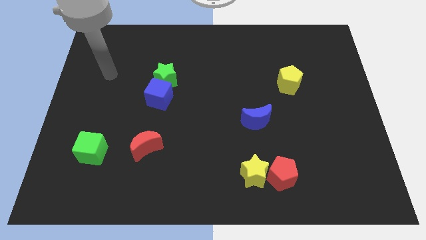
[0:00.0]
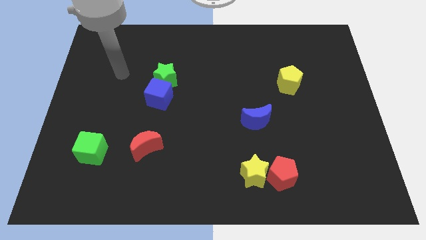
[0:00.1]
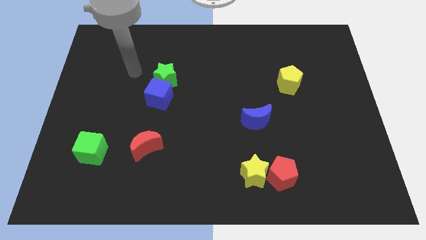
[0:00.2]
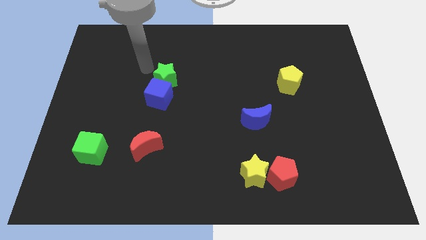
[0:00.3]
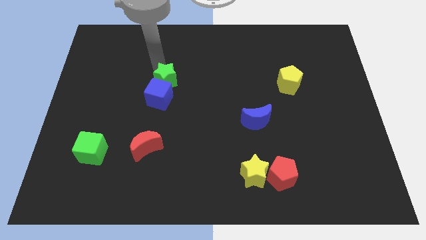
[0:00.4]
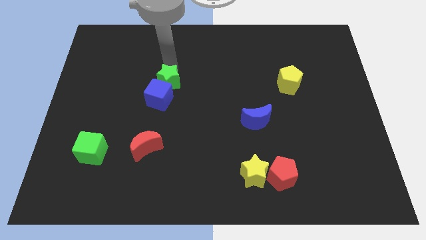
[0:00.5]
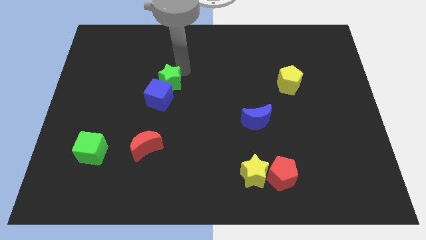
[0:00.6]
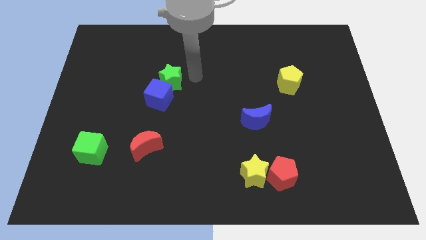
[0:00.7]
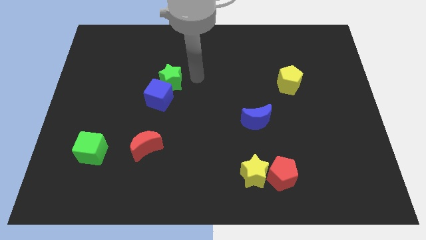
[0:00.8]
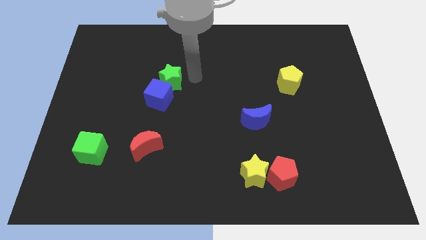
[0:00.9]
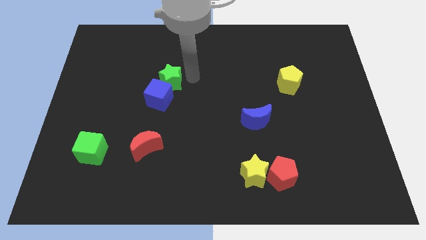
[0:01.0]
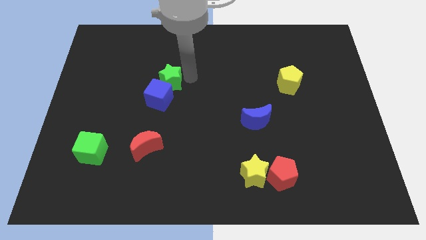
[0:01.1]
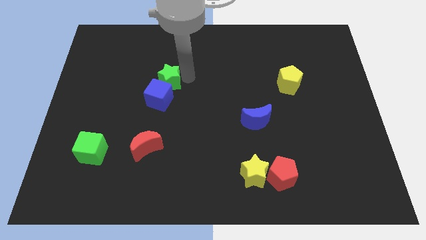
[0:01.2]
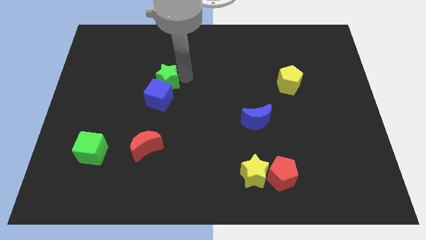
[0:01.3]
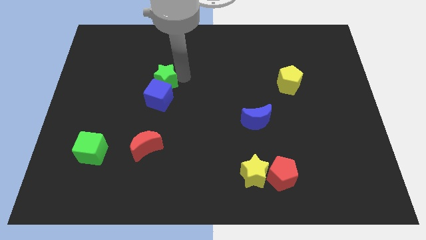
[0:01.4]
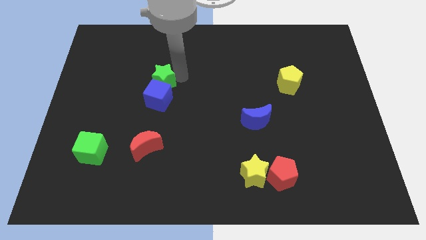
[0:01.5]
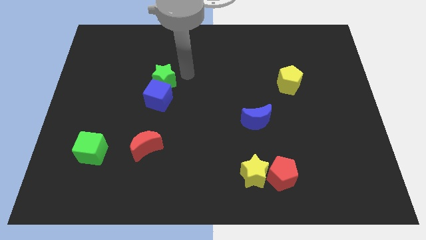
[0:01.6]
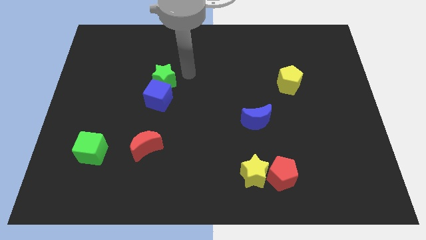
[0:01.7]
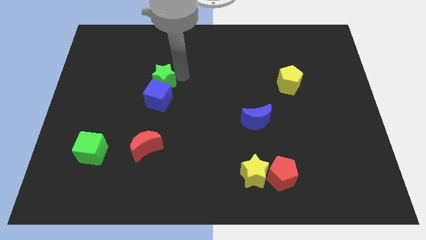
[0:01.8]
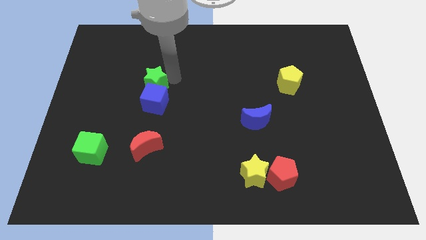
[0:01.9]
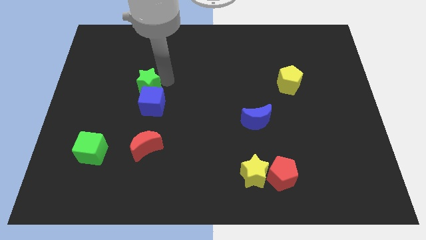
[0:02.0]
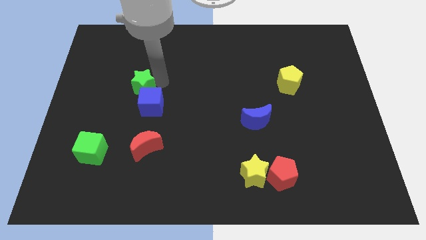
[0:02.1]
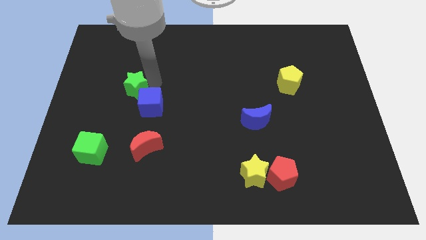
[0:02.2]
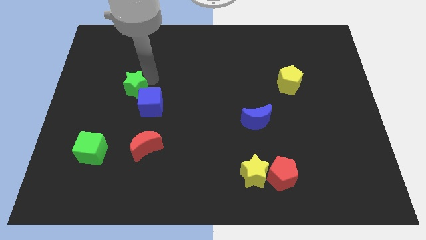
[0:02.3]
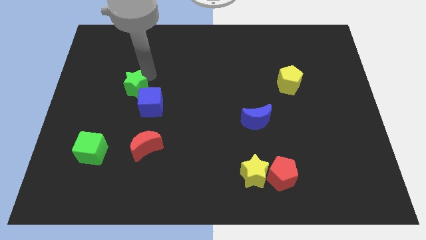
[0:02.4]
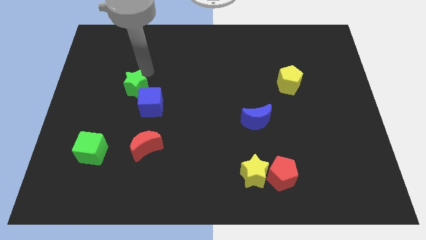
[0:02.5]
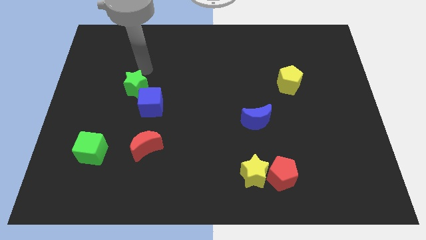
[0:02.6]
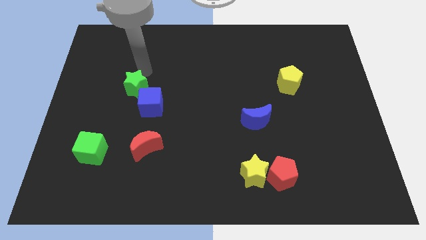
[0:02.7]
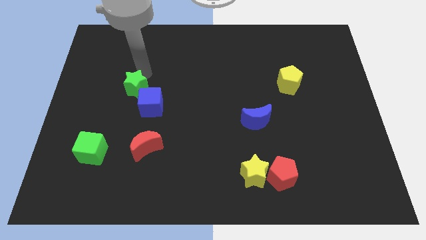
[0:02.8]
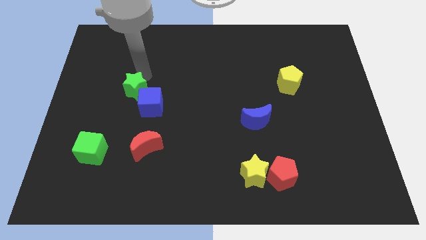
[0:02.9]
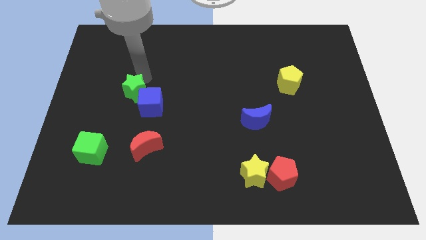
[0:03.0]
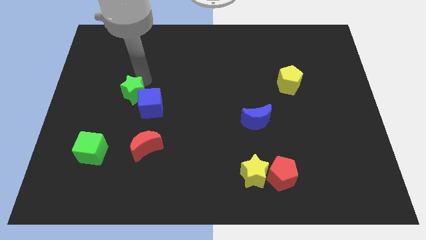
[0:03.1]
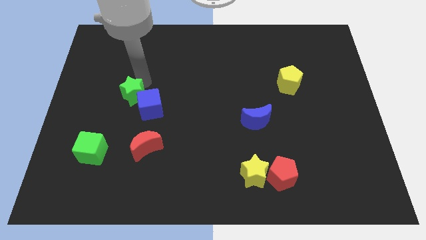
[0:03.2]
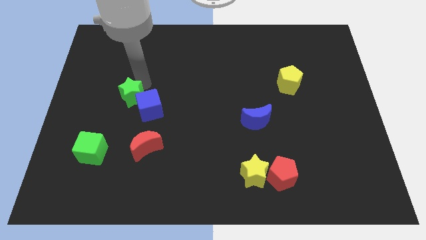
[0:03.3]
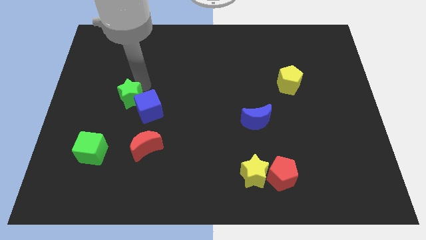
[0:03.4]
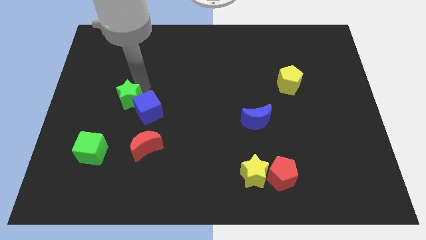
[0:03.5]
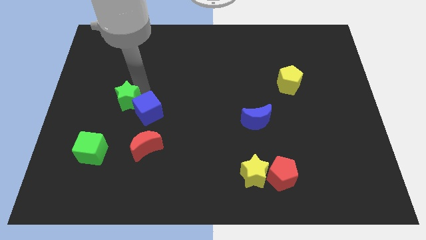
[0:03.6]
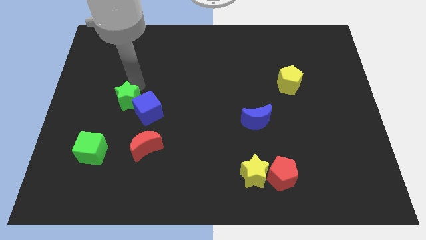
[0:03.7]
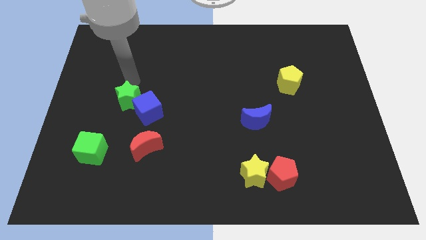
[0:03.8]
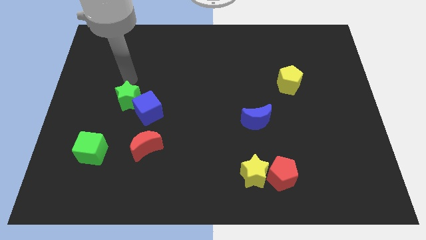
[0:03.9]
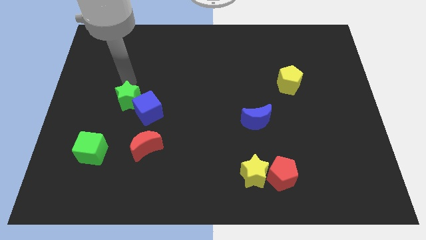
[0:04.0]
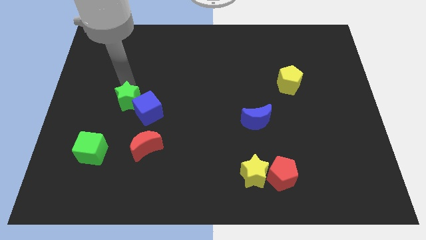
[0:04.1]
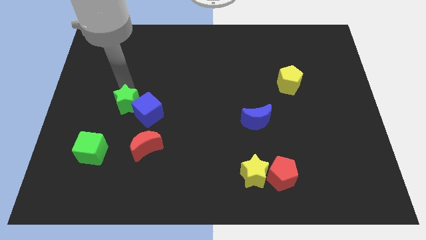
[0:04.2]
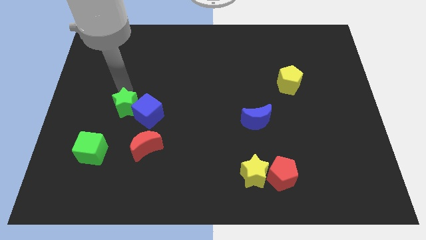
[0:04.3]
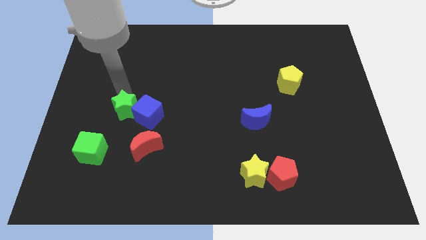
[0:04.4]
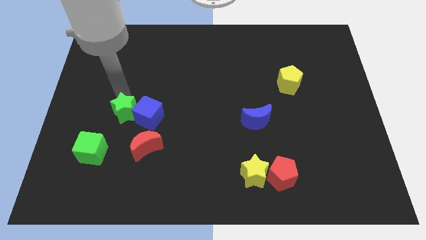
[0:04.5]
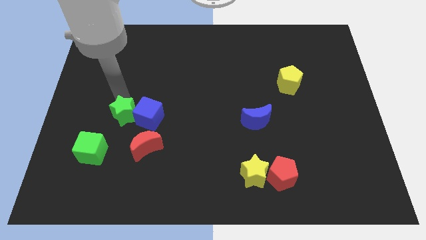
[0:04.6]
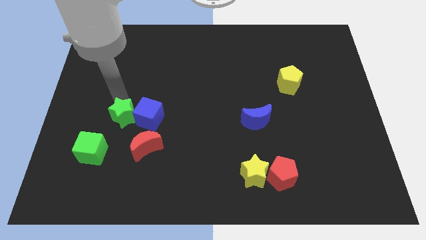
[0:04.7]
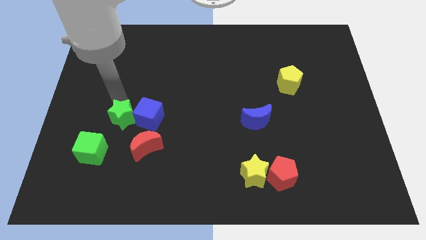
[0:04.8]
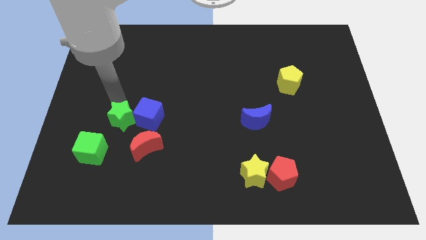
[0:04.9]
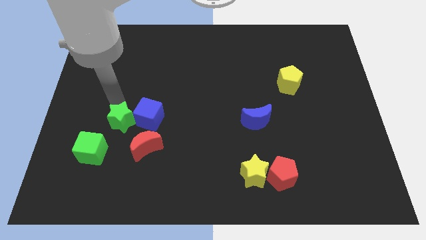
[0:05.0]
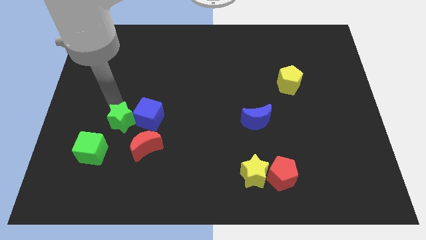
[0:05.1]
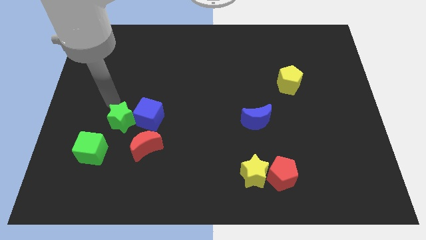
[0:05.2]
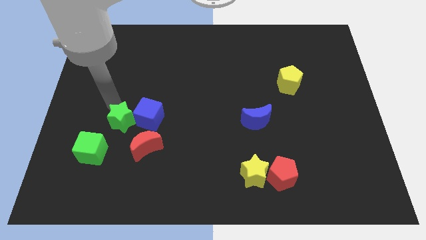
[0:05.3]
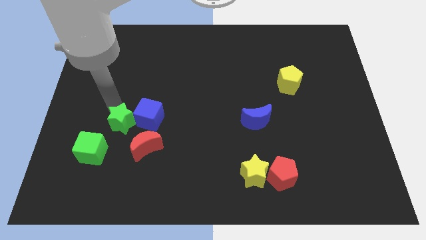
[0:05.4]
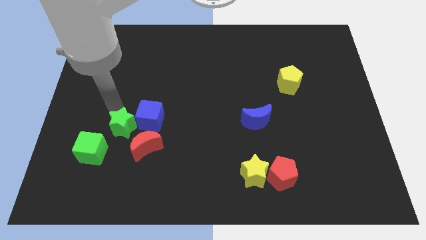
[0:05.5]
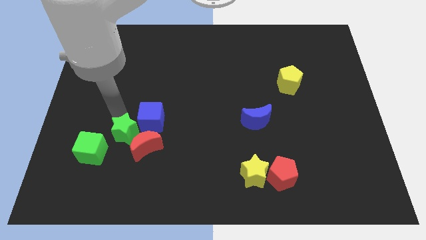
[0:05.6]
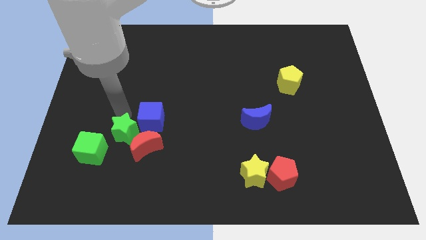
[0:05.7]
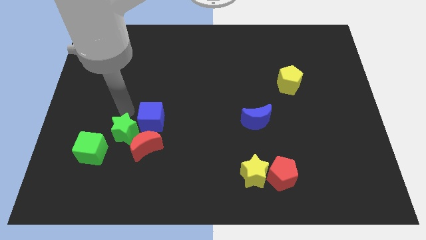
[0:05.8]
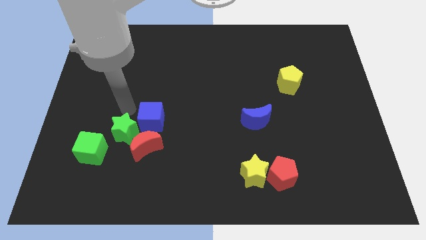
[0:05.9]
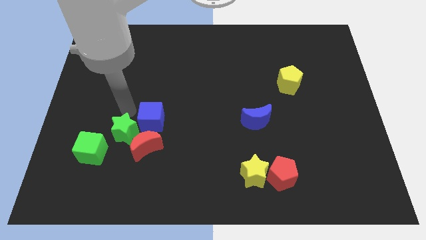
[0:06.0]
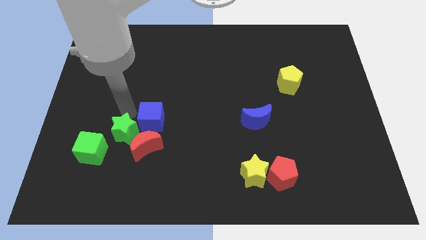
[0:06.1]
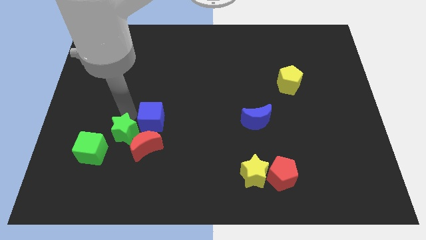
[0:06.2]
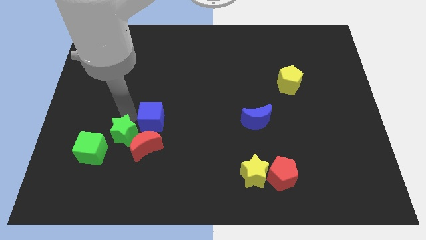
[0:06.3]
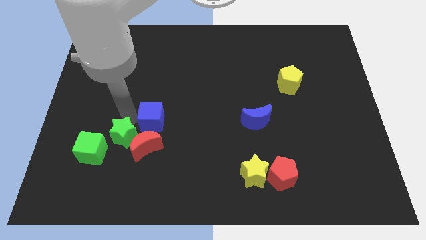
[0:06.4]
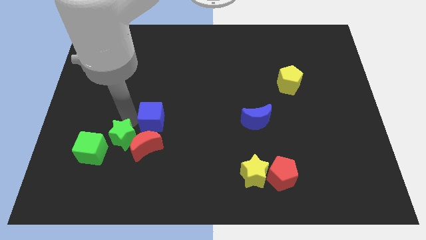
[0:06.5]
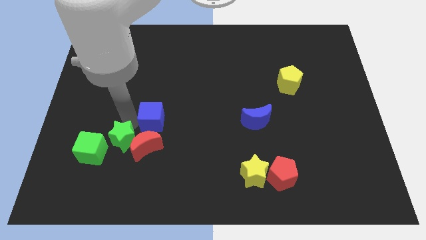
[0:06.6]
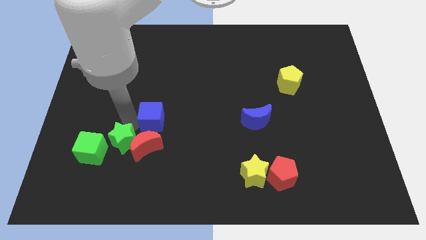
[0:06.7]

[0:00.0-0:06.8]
put the green star to the bottom left of the red moon

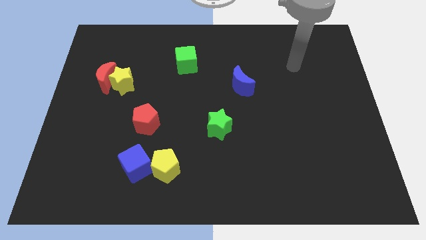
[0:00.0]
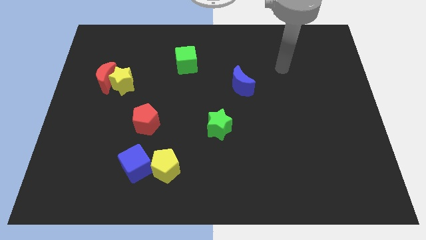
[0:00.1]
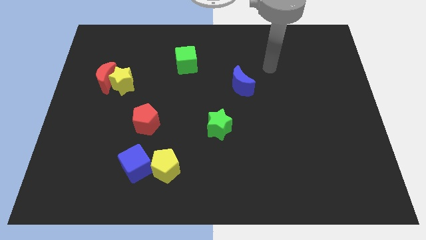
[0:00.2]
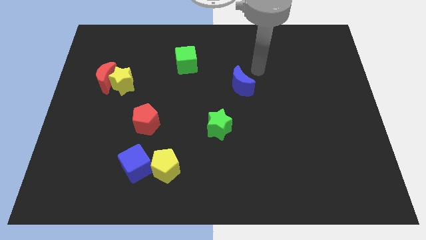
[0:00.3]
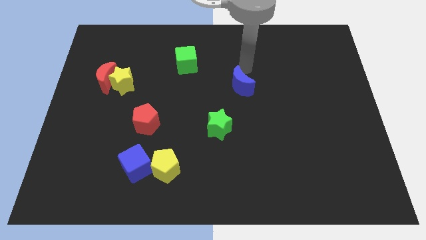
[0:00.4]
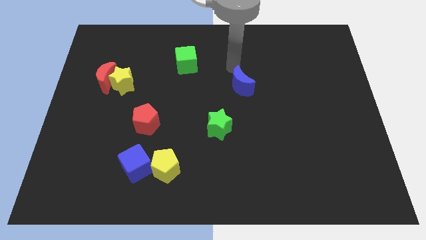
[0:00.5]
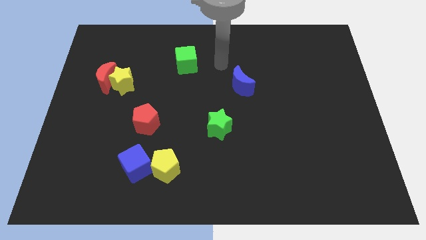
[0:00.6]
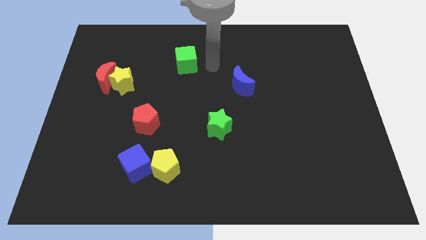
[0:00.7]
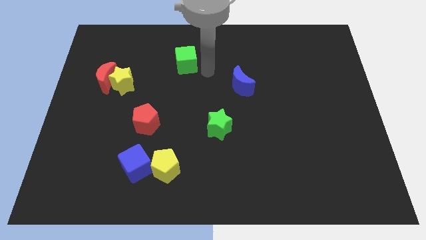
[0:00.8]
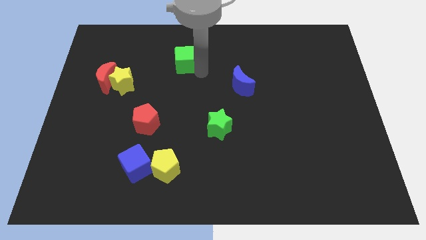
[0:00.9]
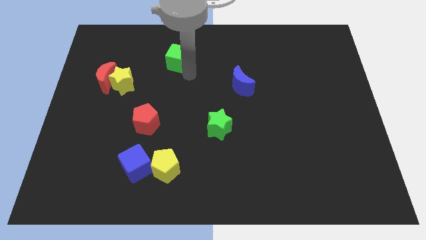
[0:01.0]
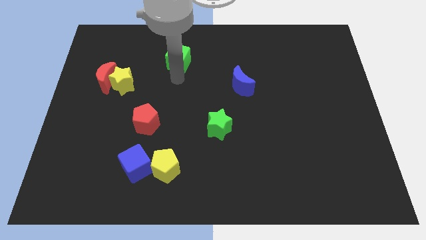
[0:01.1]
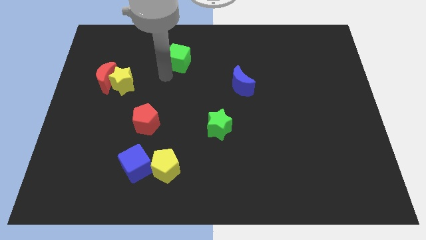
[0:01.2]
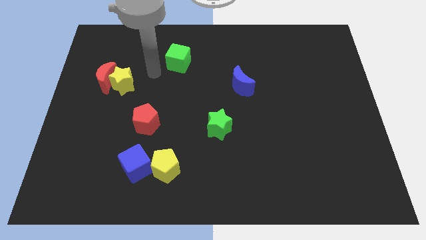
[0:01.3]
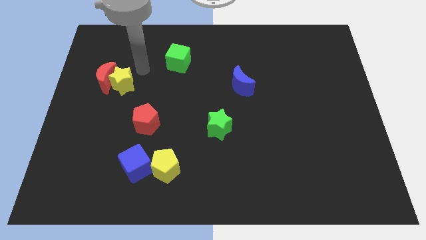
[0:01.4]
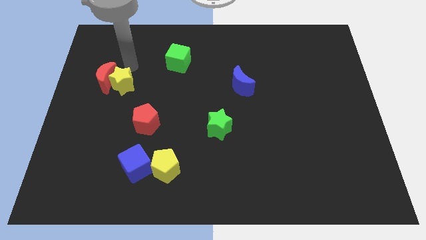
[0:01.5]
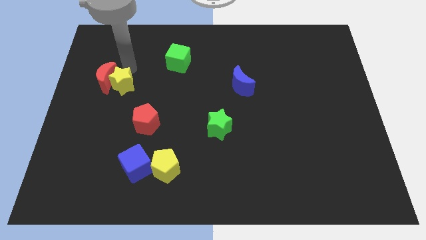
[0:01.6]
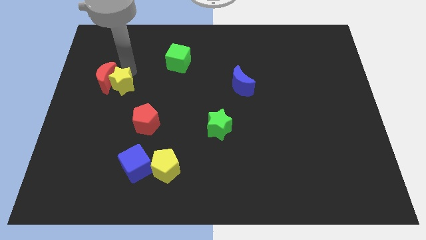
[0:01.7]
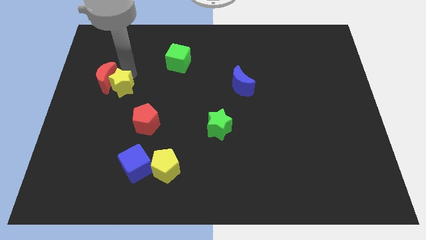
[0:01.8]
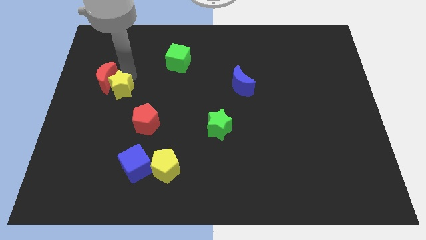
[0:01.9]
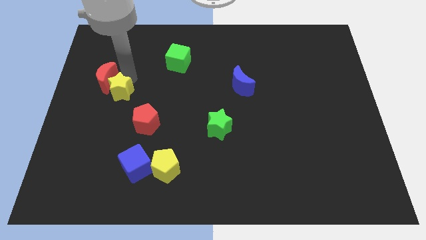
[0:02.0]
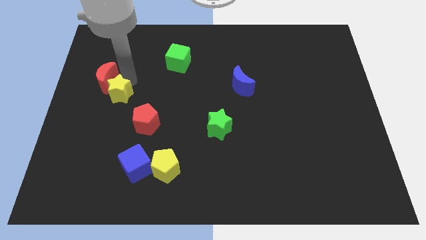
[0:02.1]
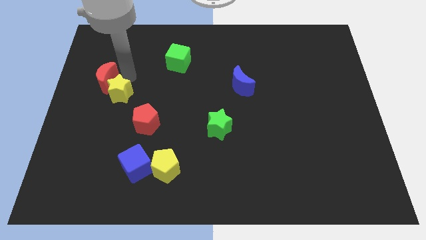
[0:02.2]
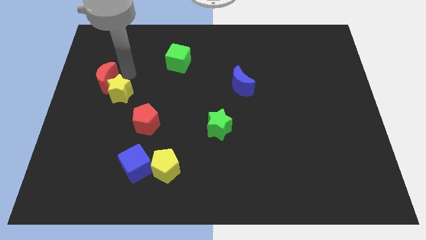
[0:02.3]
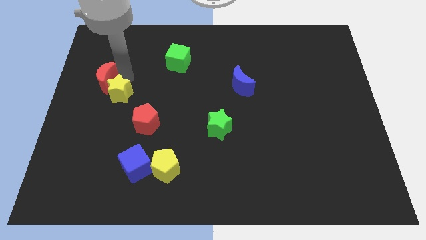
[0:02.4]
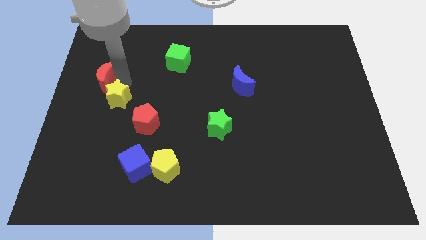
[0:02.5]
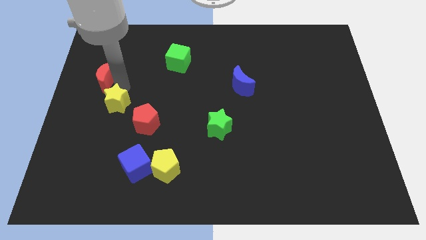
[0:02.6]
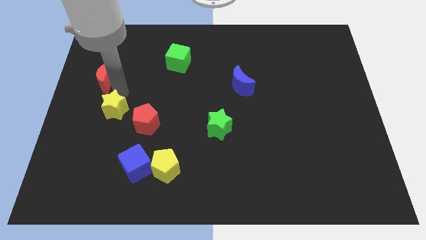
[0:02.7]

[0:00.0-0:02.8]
slide the yellow star left of the red pentagon
